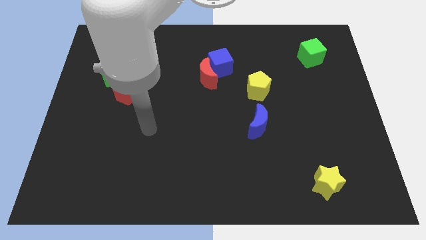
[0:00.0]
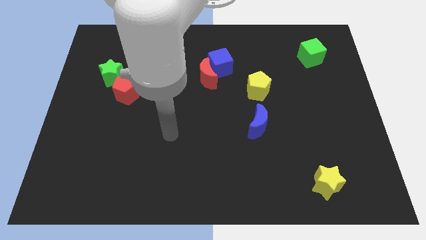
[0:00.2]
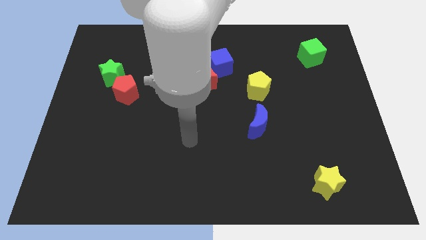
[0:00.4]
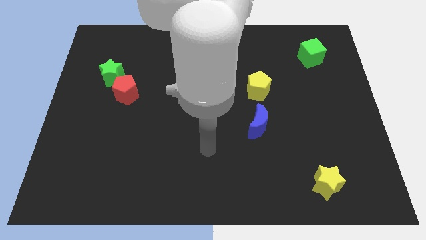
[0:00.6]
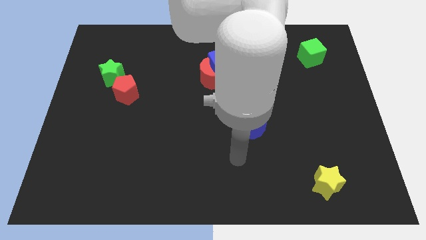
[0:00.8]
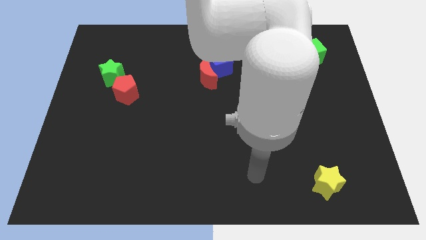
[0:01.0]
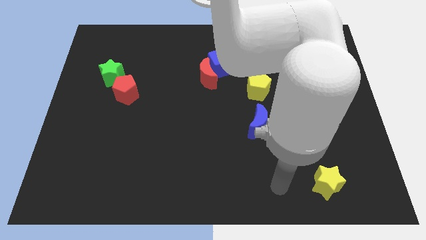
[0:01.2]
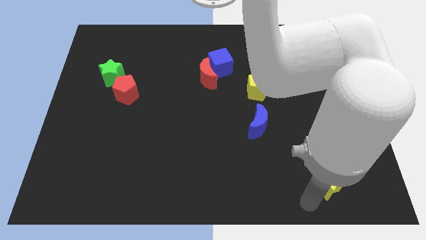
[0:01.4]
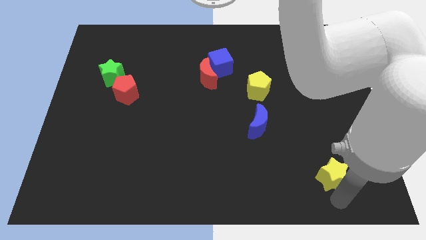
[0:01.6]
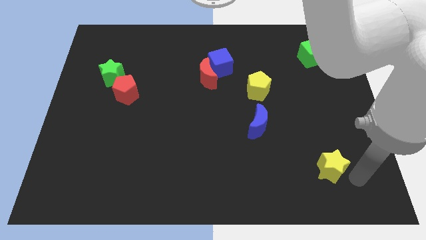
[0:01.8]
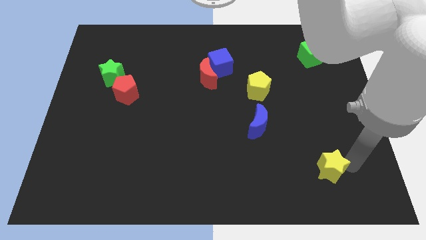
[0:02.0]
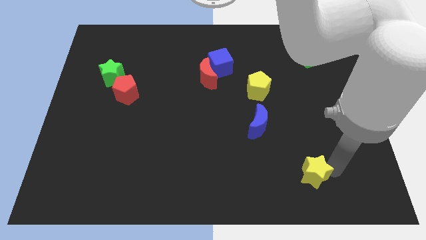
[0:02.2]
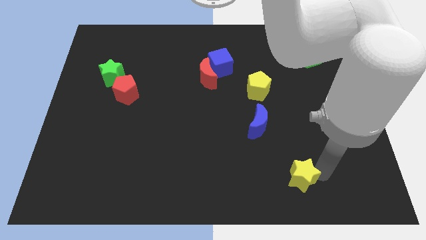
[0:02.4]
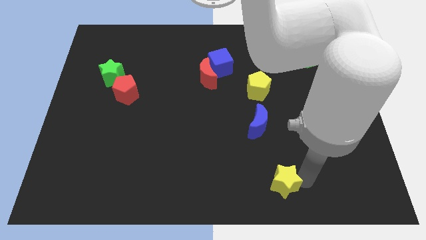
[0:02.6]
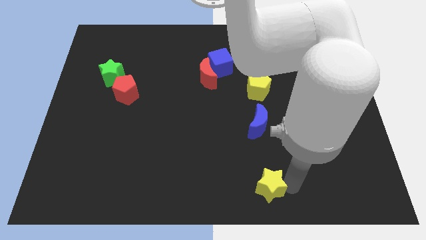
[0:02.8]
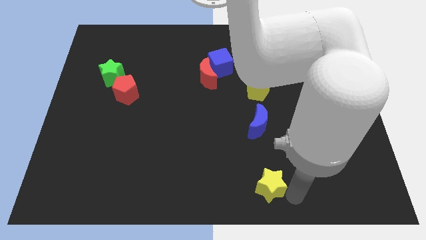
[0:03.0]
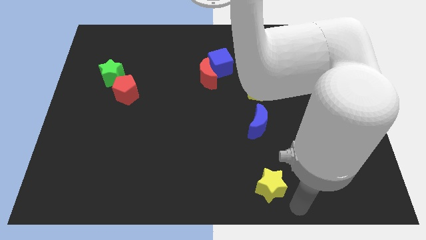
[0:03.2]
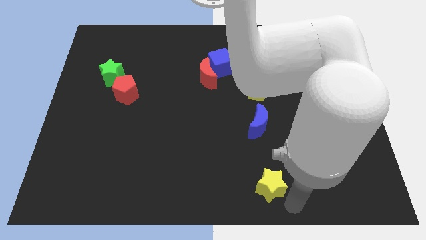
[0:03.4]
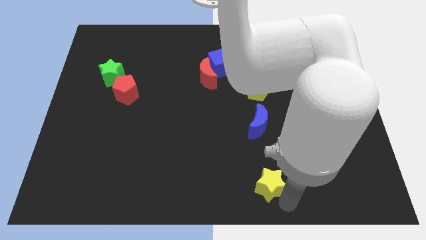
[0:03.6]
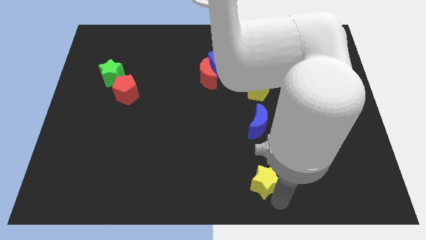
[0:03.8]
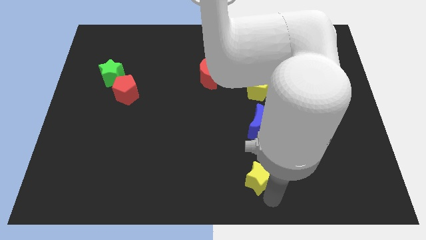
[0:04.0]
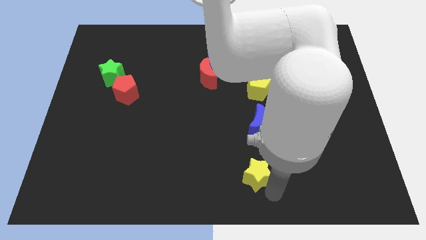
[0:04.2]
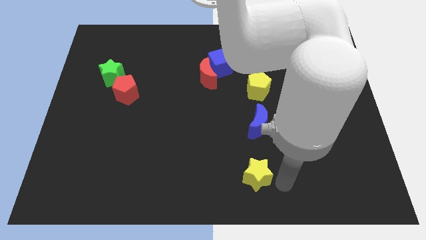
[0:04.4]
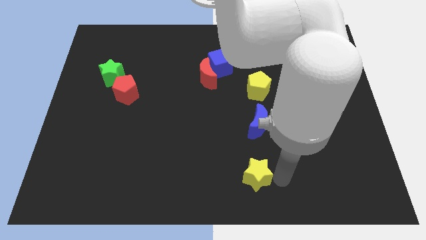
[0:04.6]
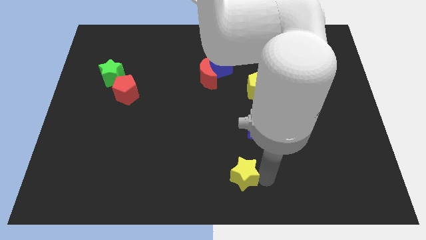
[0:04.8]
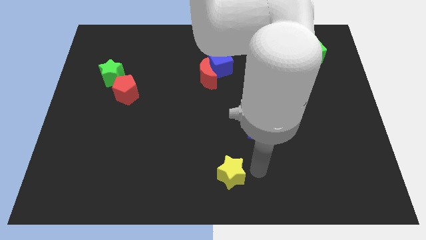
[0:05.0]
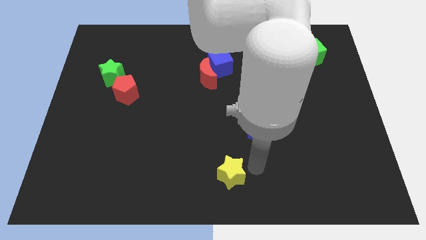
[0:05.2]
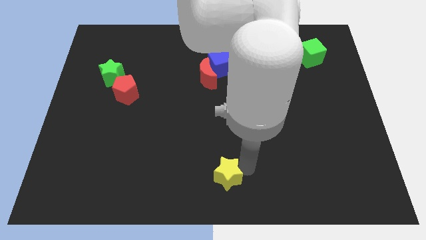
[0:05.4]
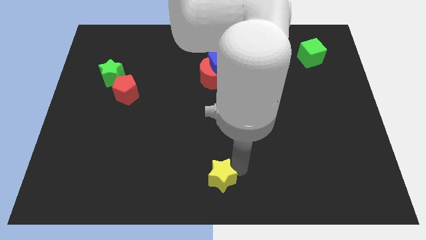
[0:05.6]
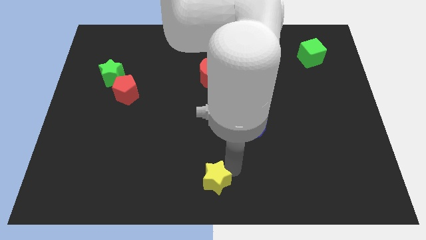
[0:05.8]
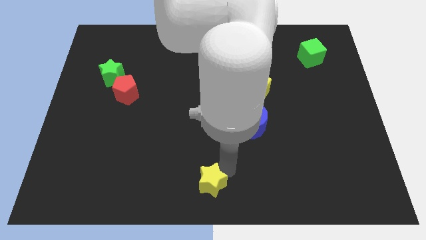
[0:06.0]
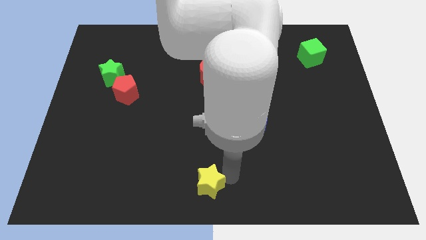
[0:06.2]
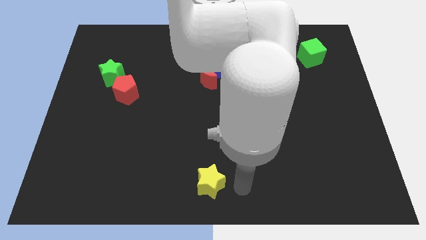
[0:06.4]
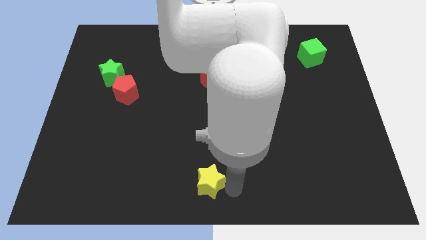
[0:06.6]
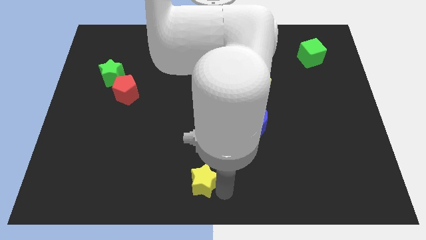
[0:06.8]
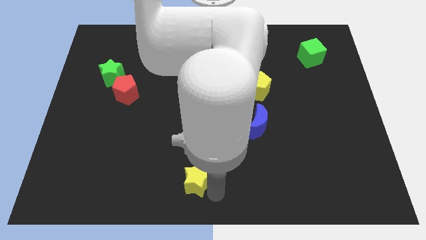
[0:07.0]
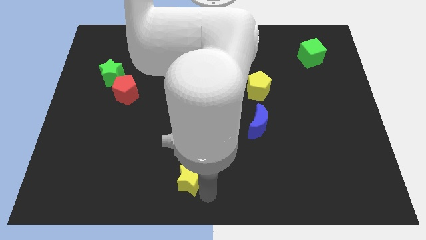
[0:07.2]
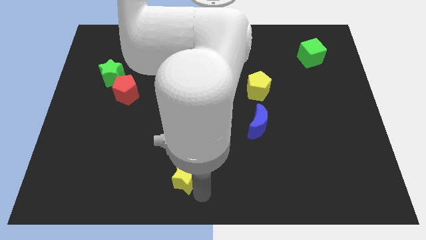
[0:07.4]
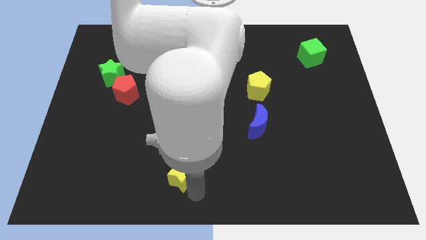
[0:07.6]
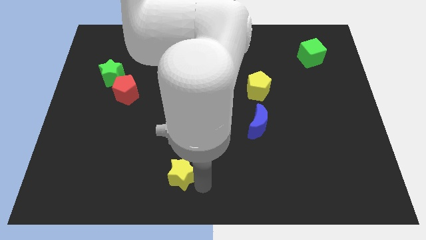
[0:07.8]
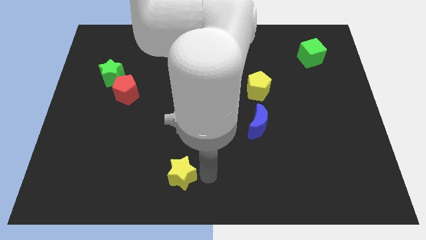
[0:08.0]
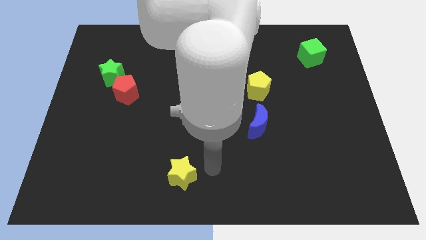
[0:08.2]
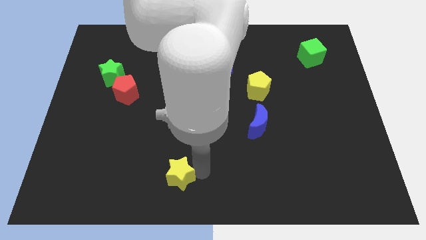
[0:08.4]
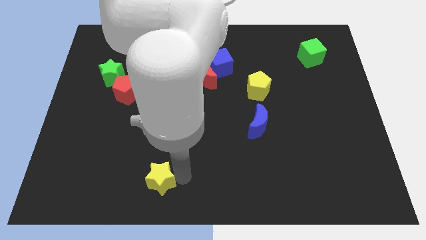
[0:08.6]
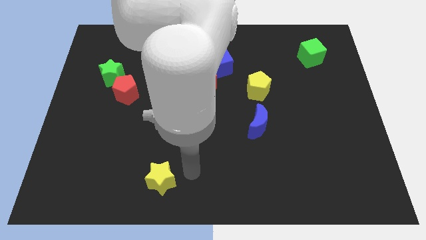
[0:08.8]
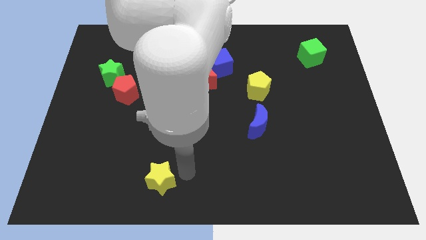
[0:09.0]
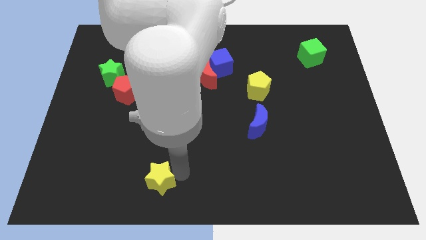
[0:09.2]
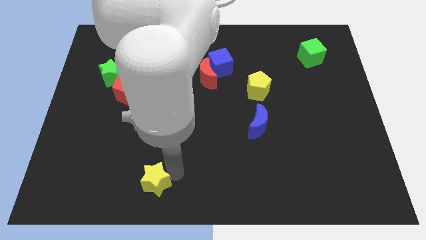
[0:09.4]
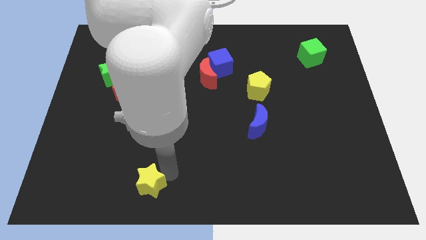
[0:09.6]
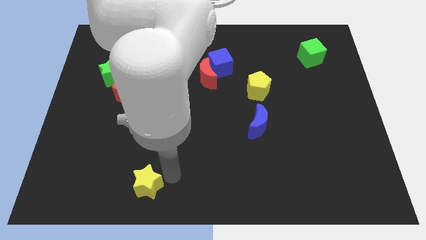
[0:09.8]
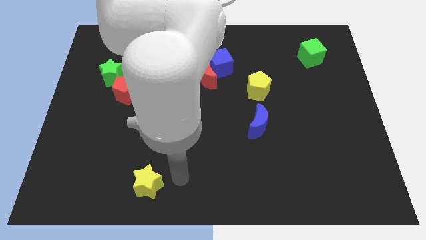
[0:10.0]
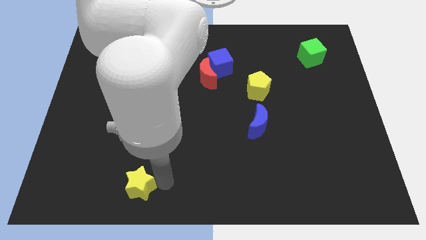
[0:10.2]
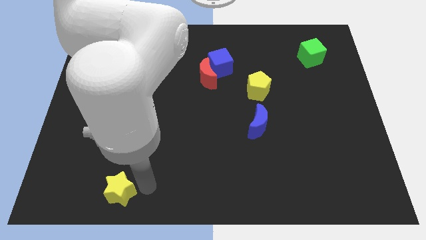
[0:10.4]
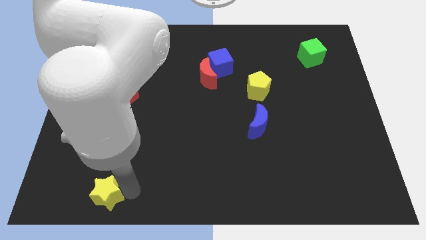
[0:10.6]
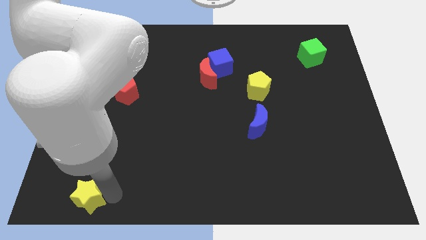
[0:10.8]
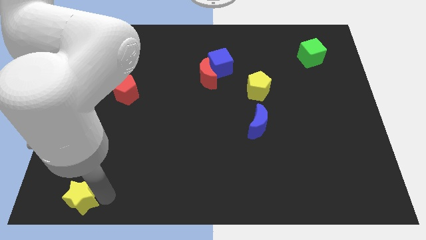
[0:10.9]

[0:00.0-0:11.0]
push the yellow star to the bottom left corner

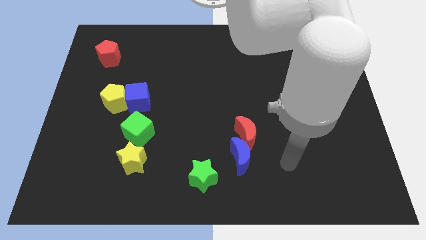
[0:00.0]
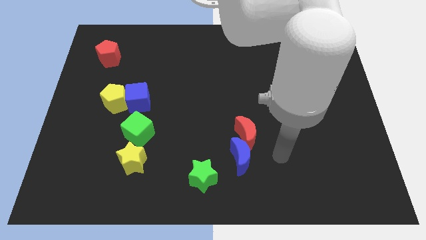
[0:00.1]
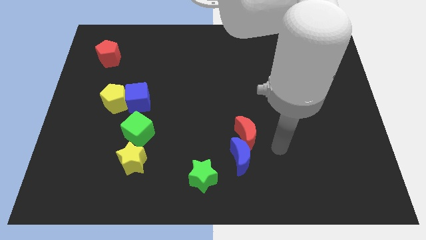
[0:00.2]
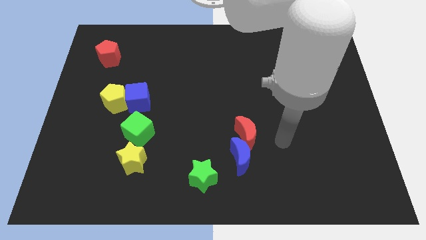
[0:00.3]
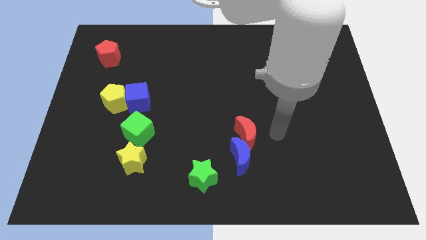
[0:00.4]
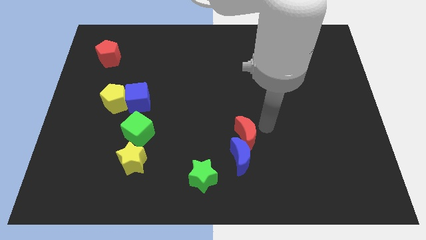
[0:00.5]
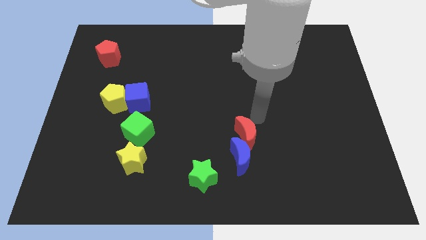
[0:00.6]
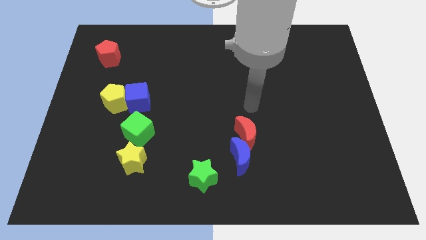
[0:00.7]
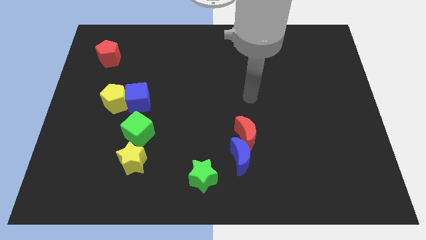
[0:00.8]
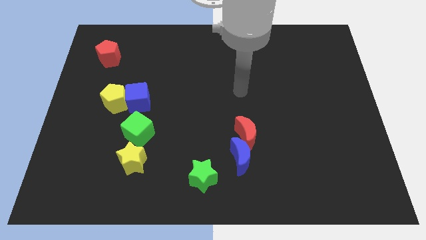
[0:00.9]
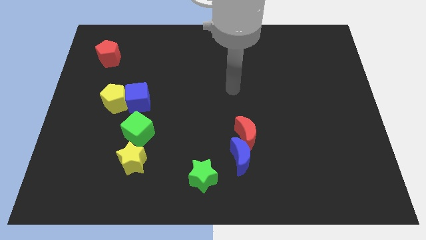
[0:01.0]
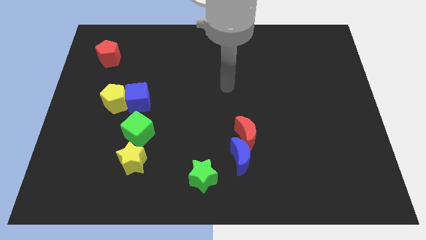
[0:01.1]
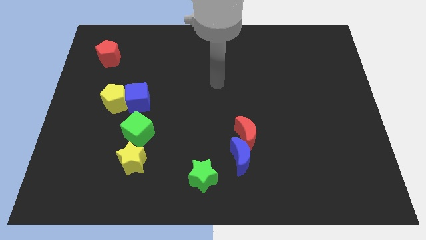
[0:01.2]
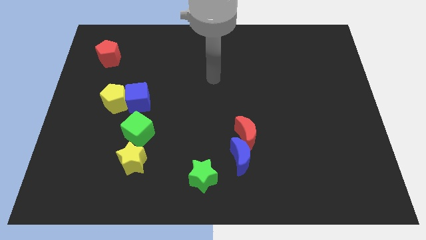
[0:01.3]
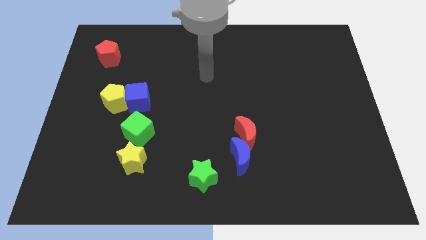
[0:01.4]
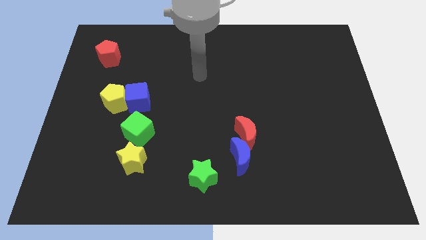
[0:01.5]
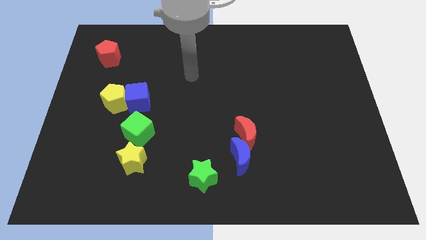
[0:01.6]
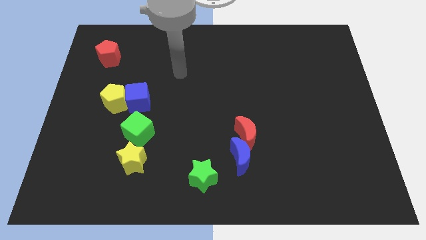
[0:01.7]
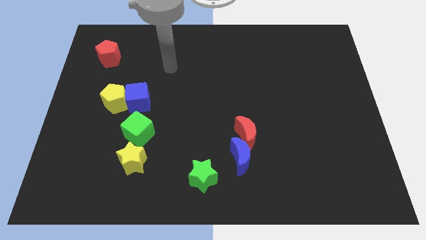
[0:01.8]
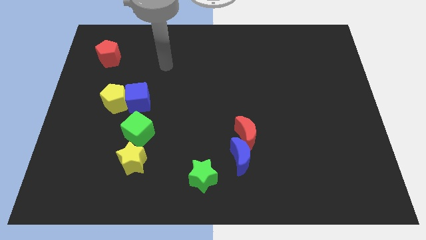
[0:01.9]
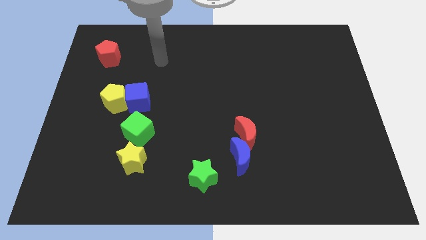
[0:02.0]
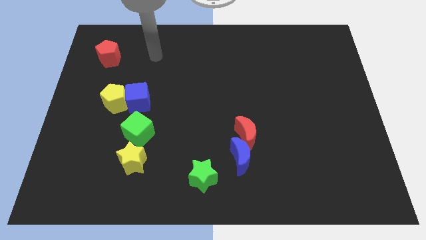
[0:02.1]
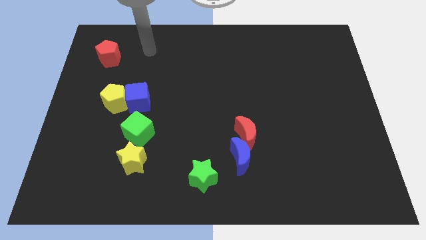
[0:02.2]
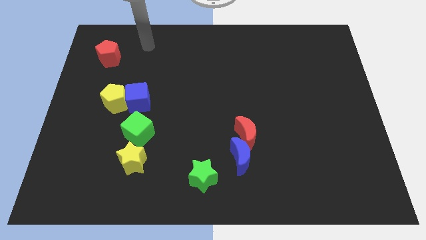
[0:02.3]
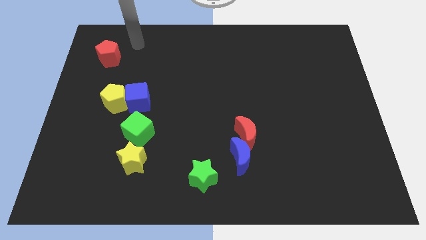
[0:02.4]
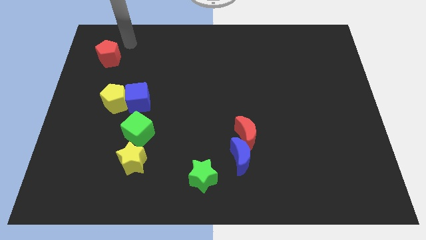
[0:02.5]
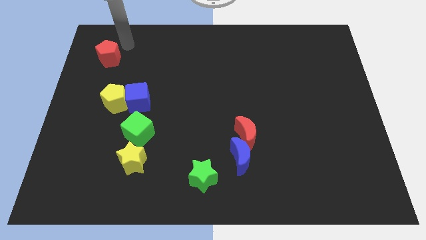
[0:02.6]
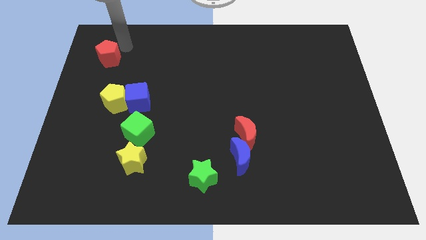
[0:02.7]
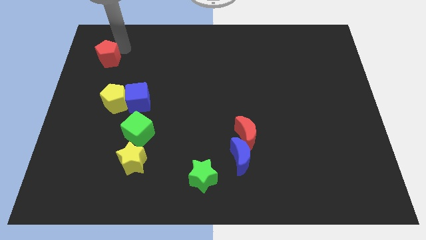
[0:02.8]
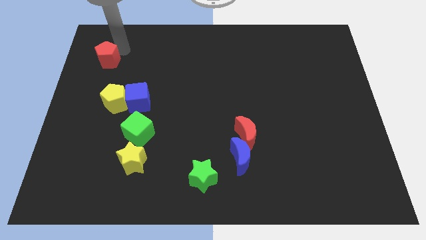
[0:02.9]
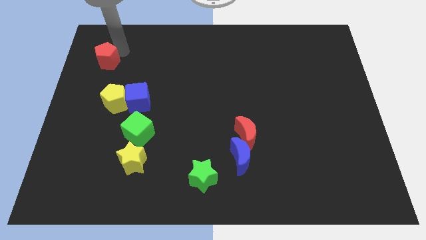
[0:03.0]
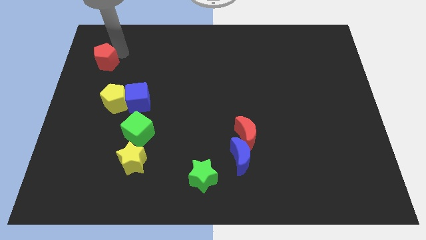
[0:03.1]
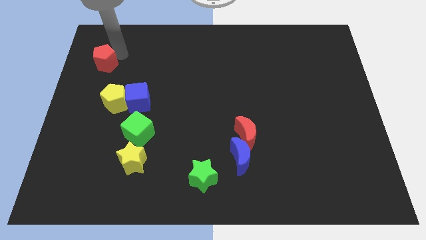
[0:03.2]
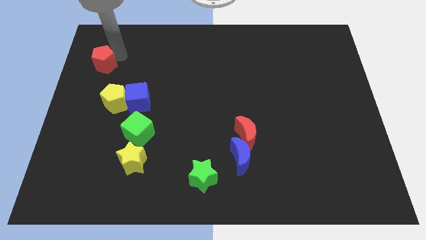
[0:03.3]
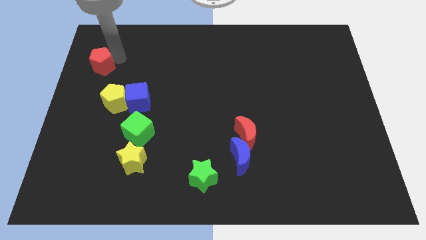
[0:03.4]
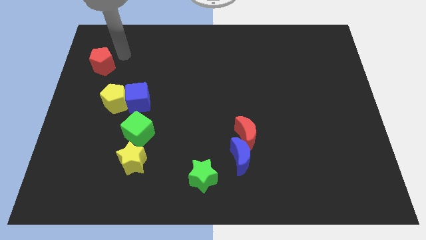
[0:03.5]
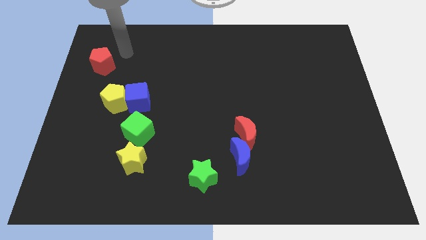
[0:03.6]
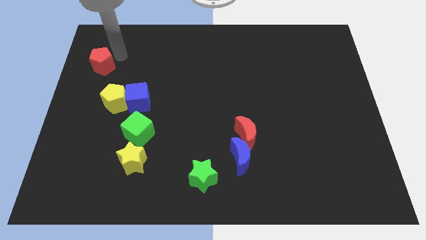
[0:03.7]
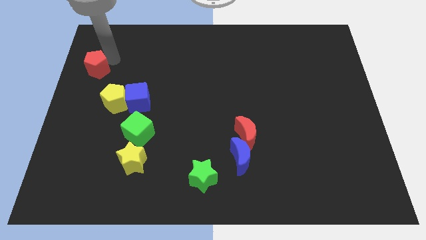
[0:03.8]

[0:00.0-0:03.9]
push the red pentagon to the left side
